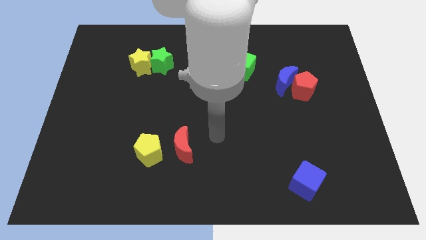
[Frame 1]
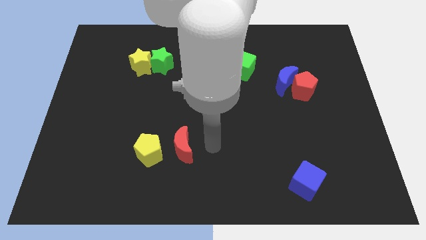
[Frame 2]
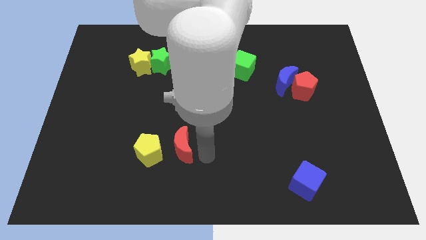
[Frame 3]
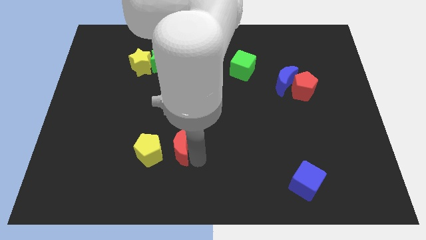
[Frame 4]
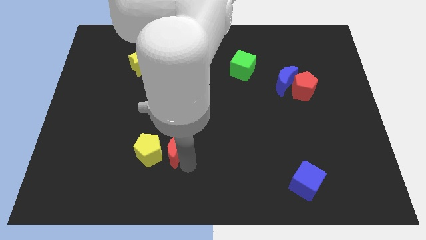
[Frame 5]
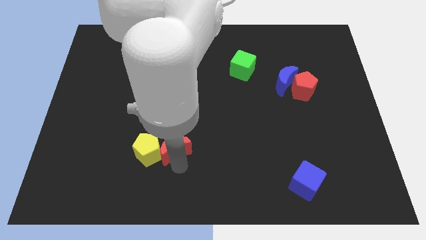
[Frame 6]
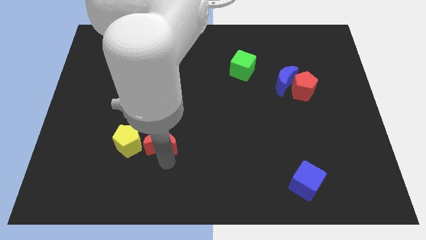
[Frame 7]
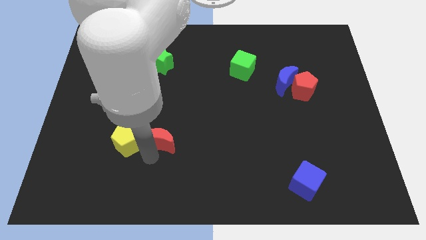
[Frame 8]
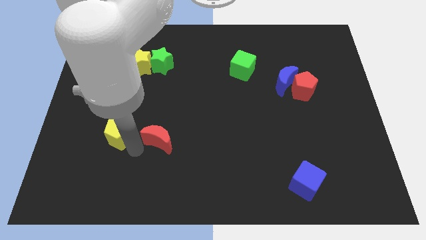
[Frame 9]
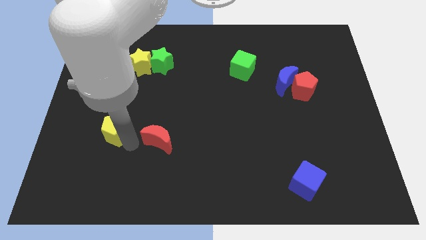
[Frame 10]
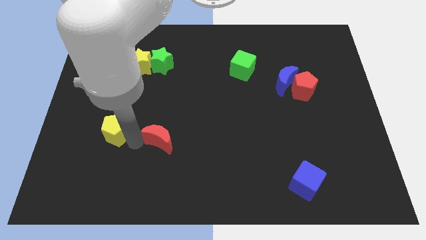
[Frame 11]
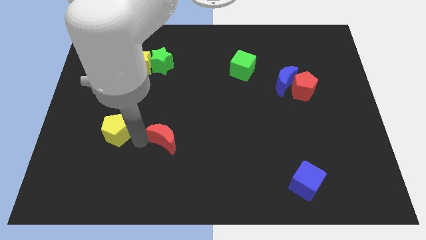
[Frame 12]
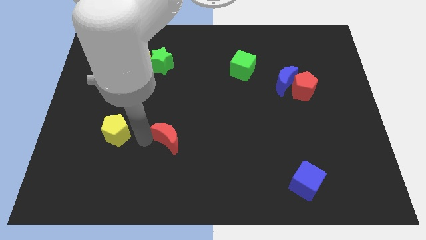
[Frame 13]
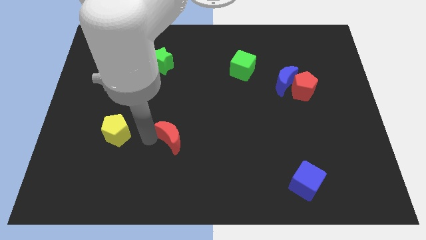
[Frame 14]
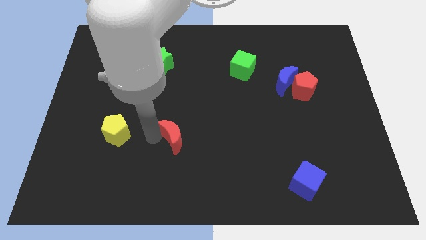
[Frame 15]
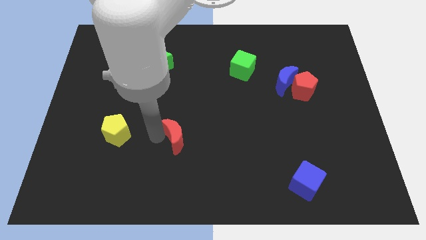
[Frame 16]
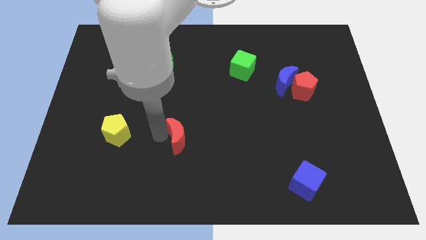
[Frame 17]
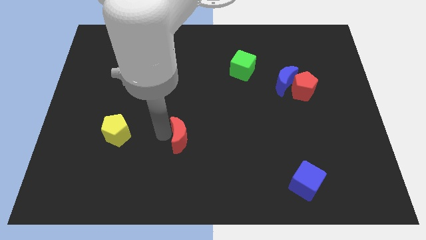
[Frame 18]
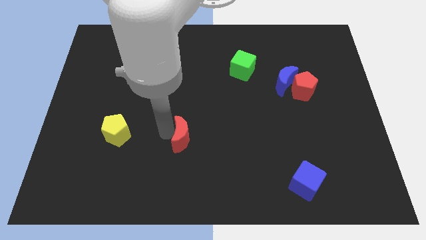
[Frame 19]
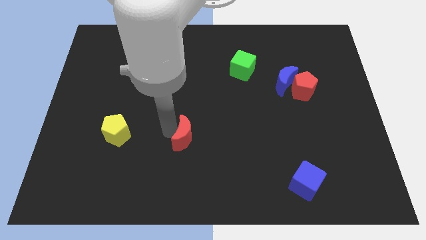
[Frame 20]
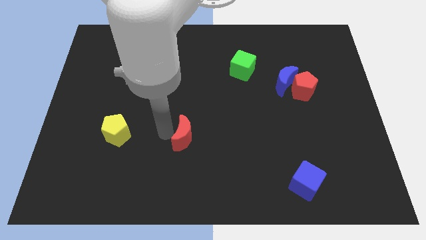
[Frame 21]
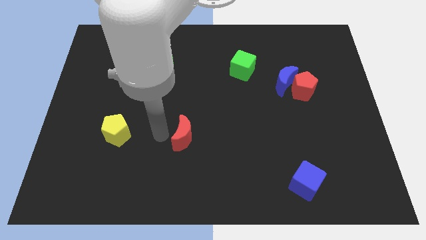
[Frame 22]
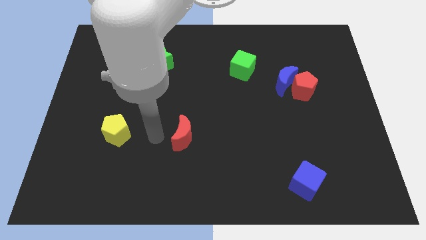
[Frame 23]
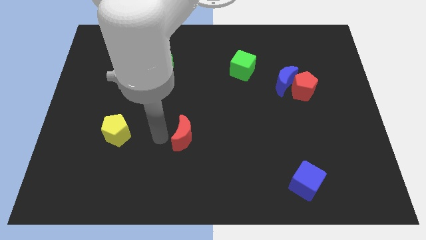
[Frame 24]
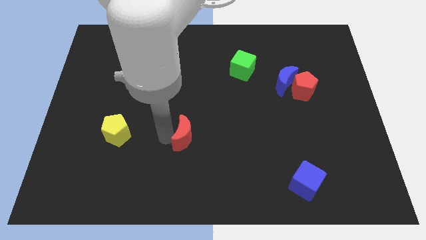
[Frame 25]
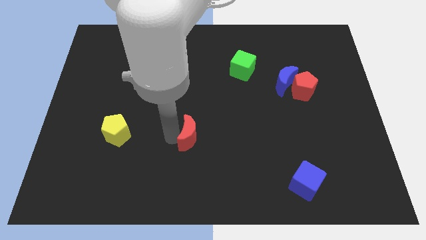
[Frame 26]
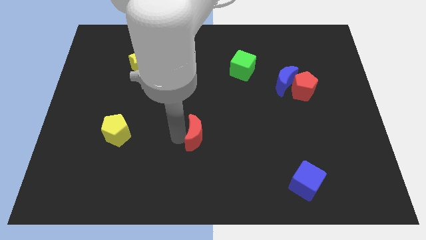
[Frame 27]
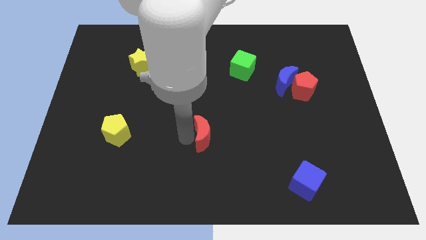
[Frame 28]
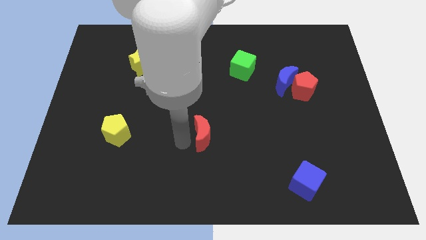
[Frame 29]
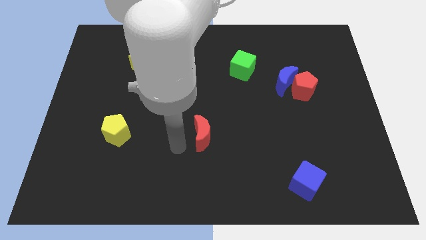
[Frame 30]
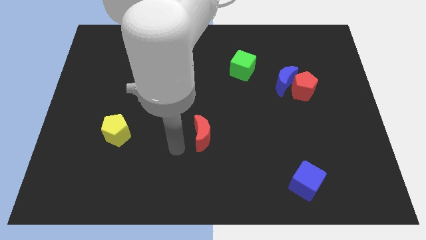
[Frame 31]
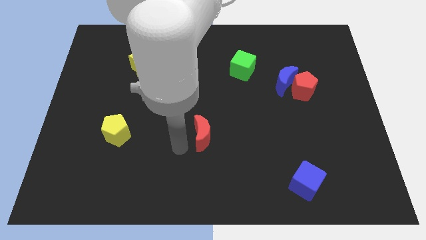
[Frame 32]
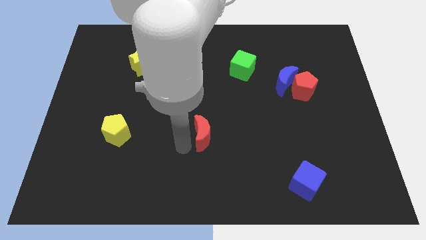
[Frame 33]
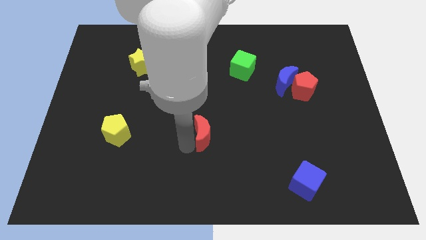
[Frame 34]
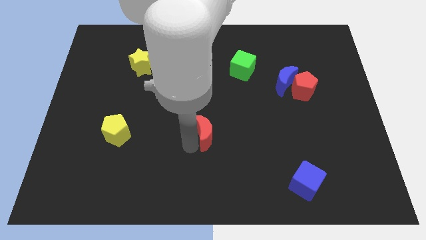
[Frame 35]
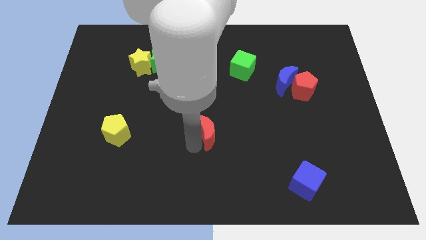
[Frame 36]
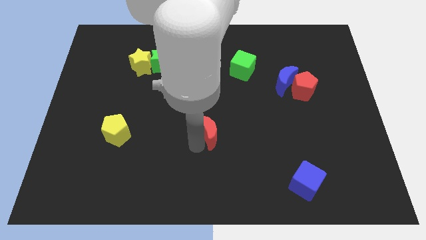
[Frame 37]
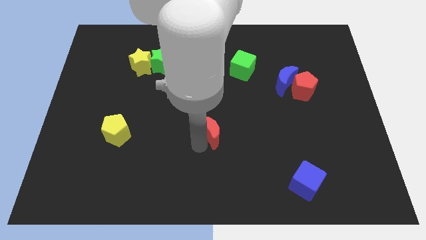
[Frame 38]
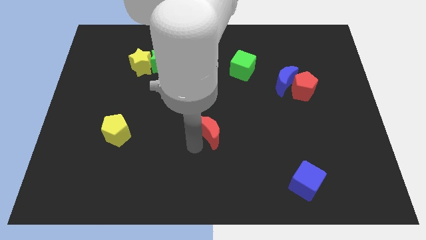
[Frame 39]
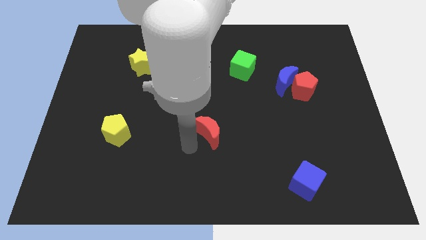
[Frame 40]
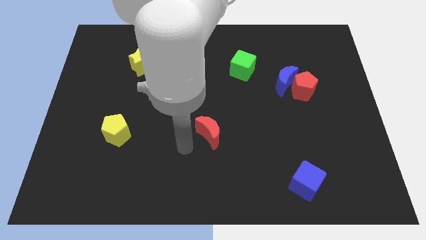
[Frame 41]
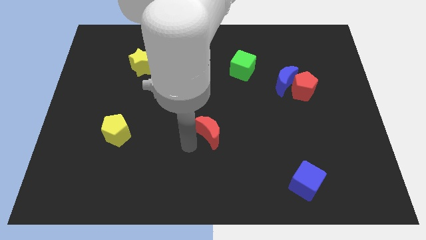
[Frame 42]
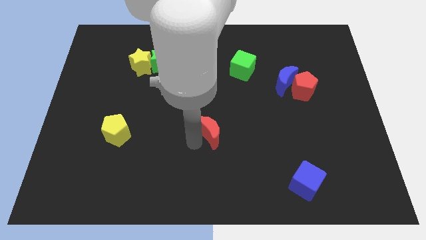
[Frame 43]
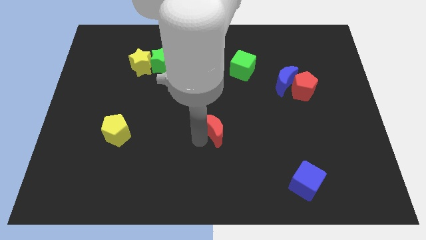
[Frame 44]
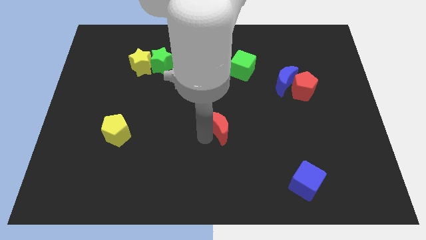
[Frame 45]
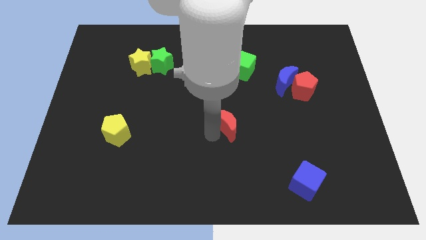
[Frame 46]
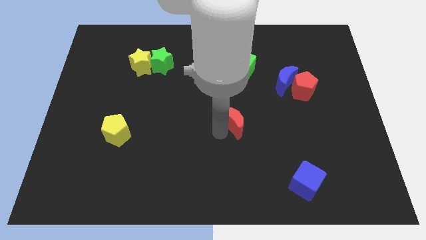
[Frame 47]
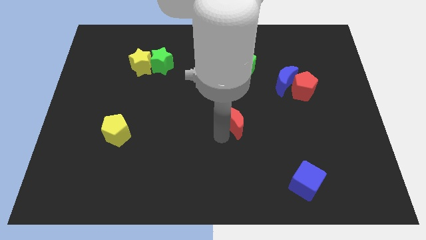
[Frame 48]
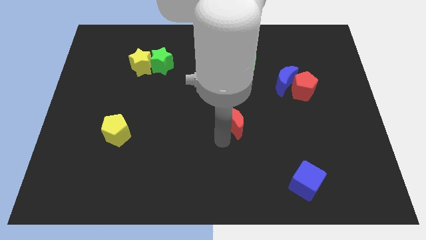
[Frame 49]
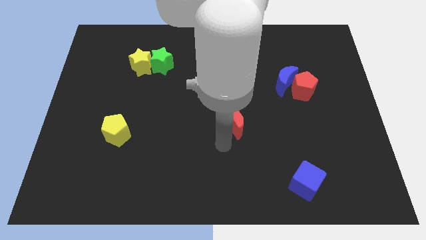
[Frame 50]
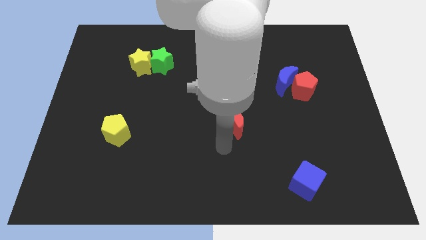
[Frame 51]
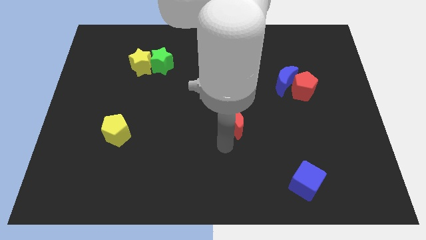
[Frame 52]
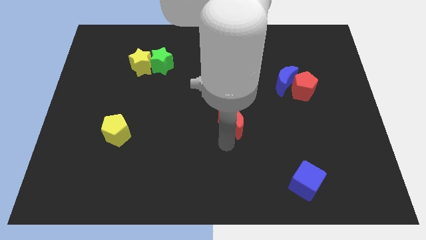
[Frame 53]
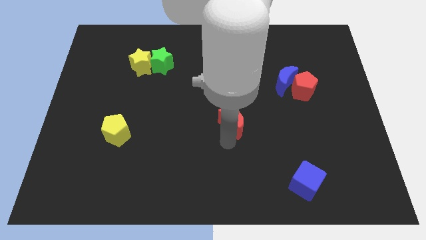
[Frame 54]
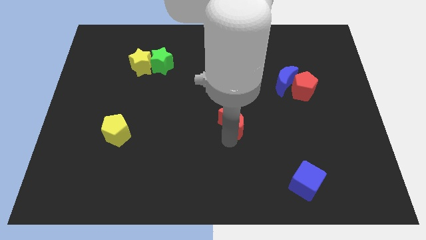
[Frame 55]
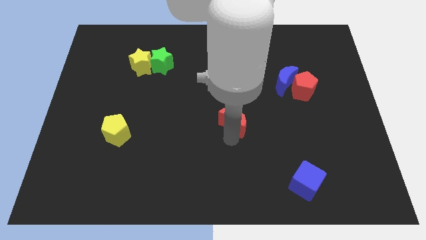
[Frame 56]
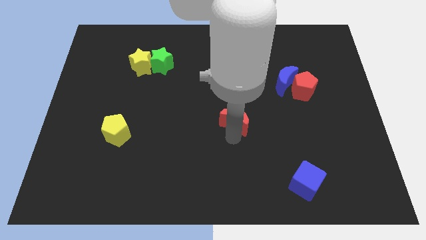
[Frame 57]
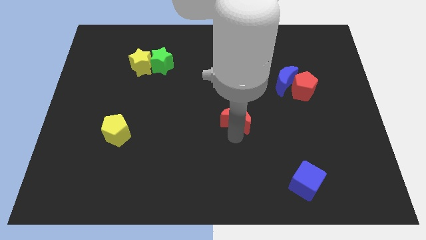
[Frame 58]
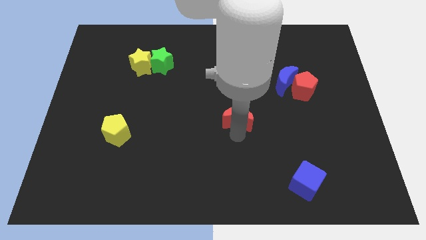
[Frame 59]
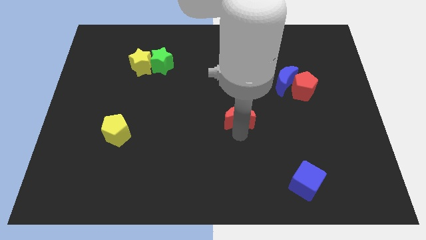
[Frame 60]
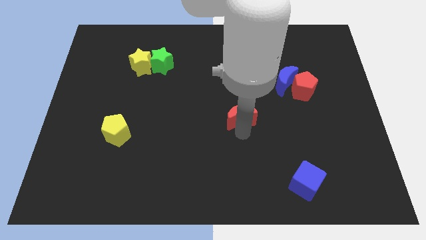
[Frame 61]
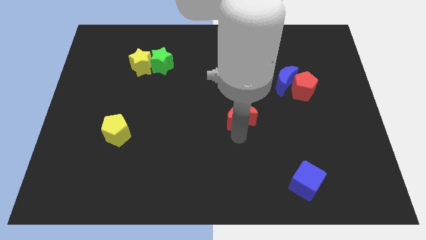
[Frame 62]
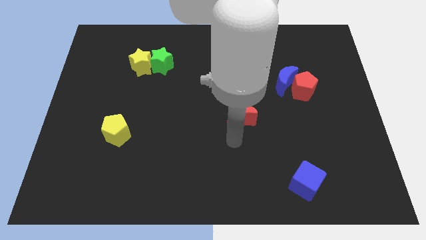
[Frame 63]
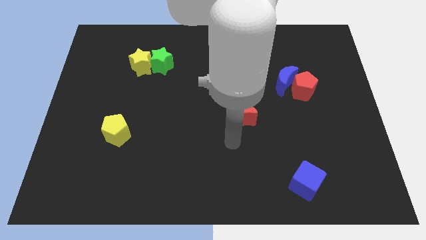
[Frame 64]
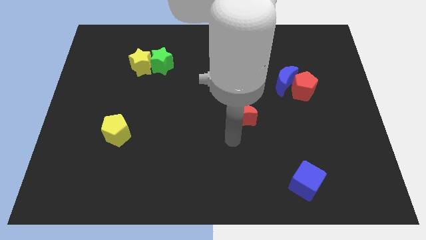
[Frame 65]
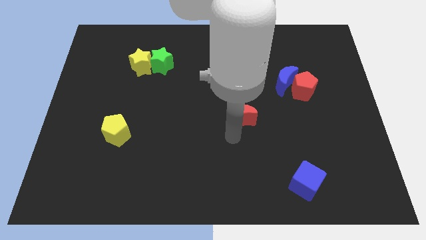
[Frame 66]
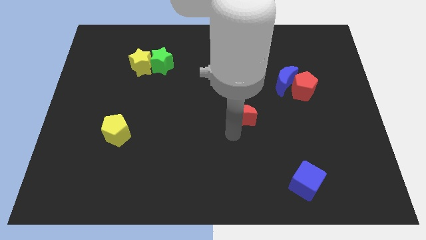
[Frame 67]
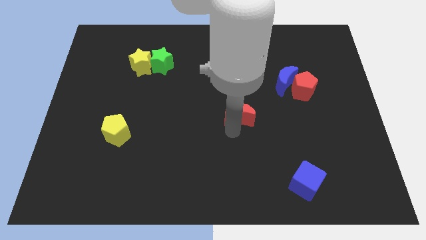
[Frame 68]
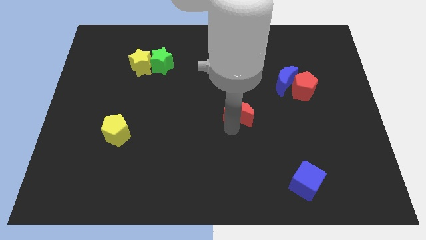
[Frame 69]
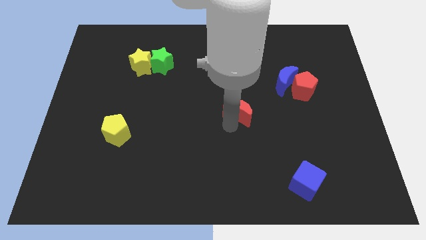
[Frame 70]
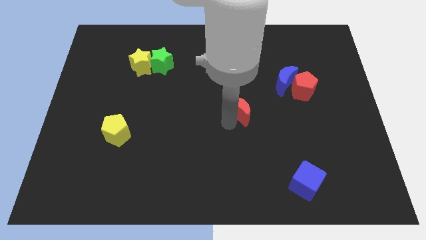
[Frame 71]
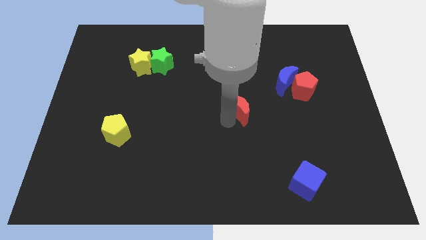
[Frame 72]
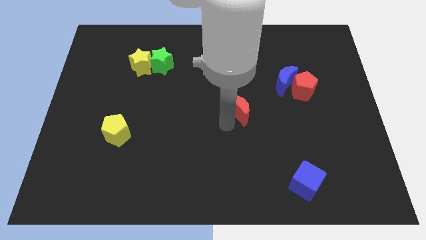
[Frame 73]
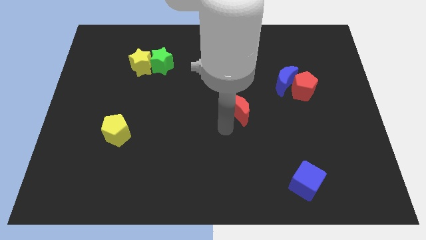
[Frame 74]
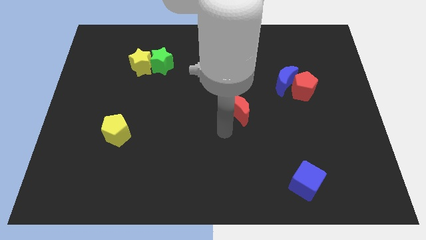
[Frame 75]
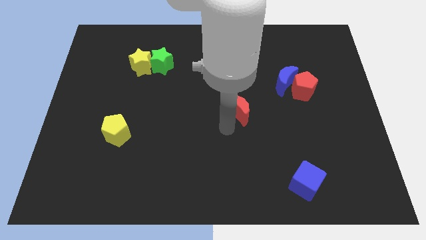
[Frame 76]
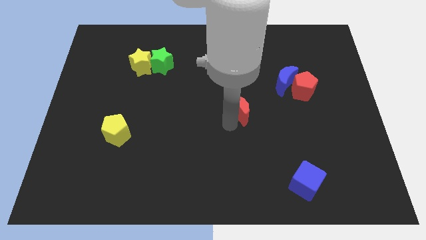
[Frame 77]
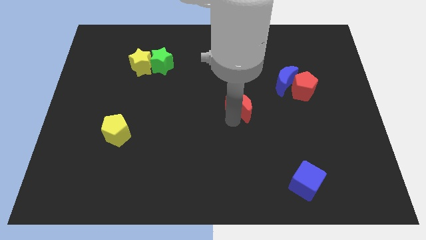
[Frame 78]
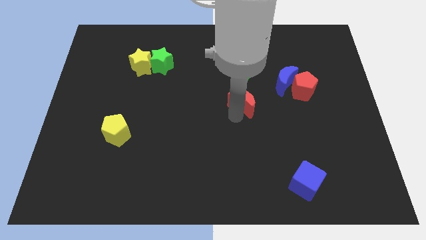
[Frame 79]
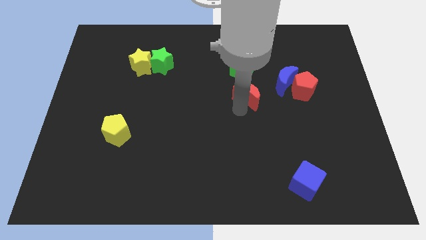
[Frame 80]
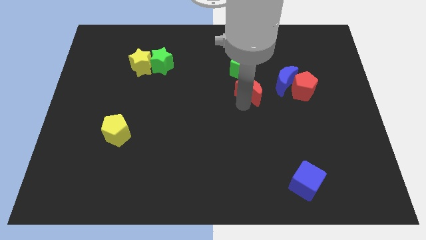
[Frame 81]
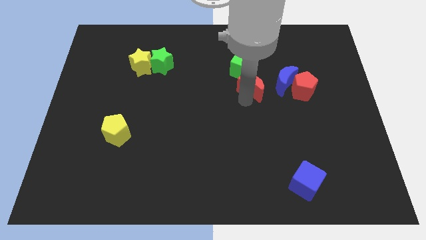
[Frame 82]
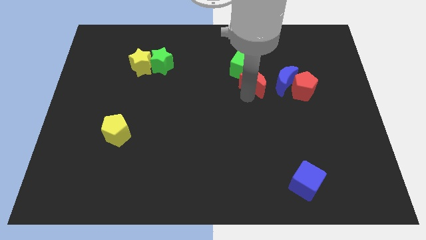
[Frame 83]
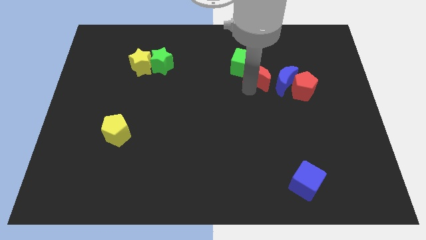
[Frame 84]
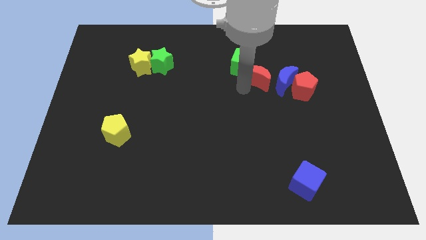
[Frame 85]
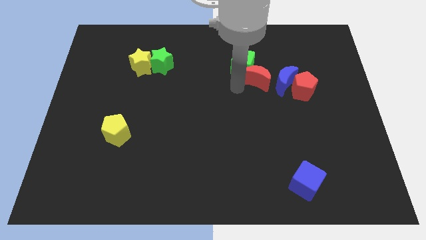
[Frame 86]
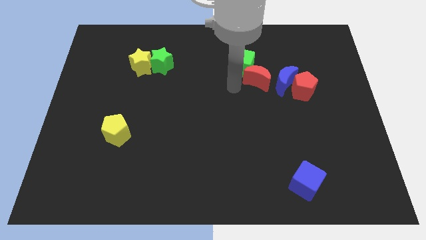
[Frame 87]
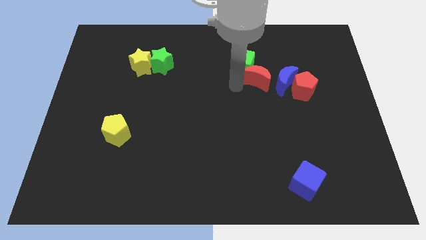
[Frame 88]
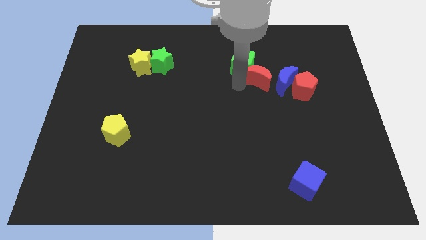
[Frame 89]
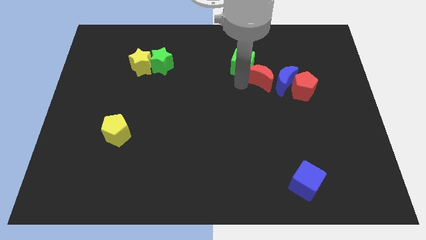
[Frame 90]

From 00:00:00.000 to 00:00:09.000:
move the red moon to the top left side of the red pentagon
